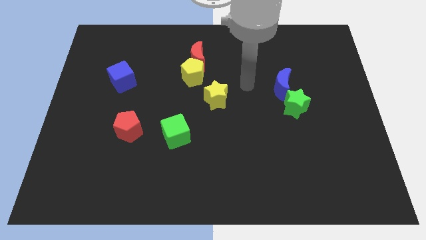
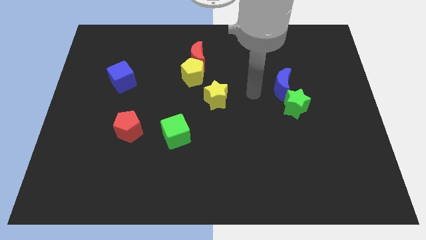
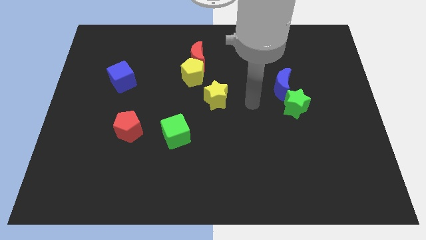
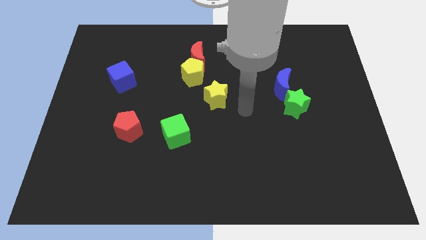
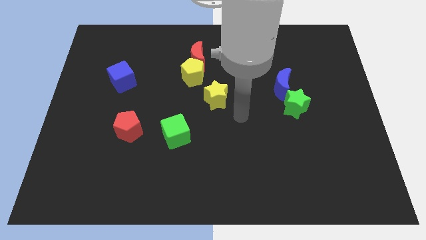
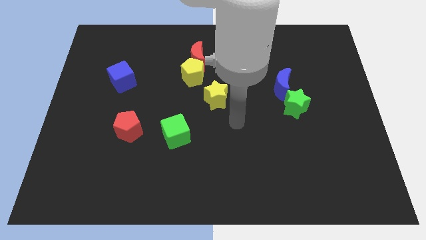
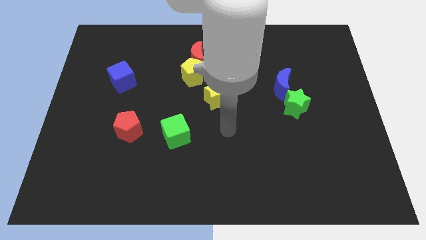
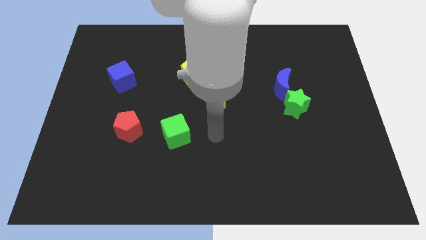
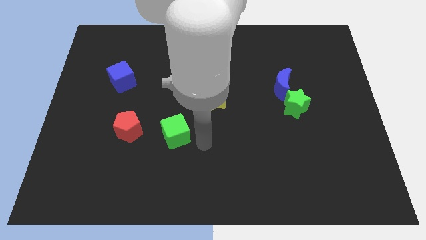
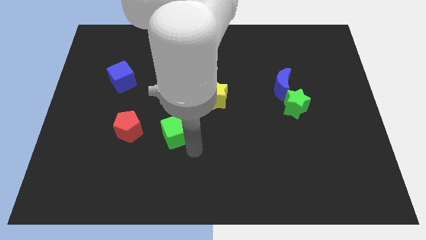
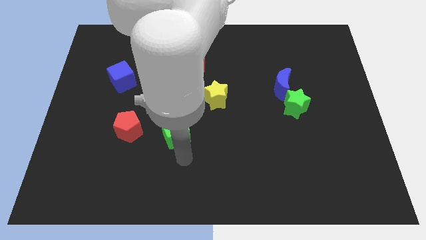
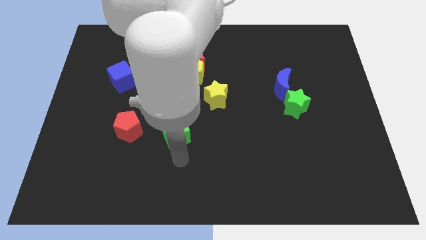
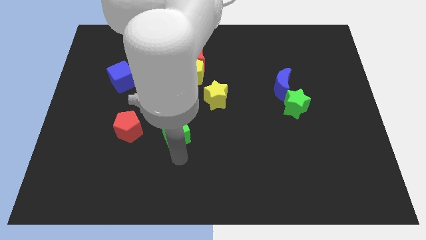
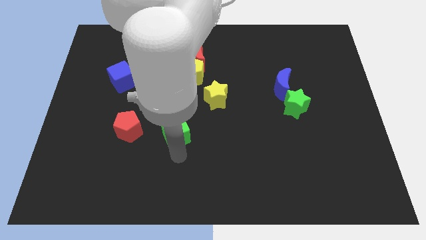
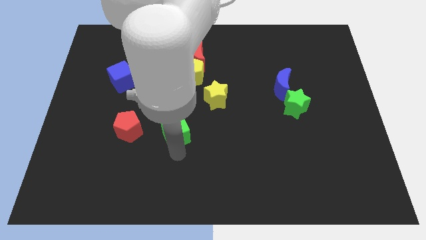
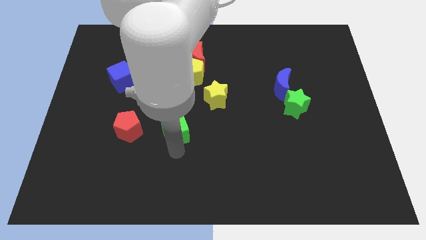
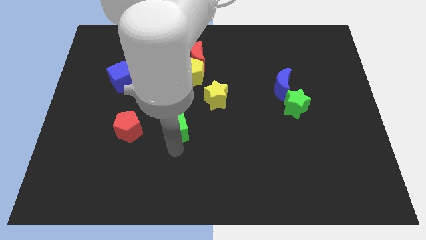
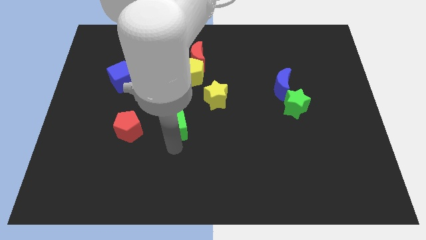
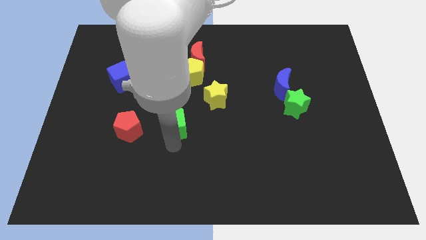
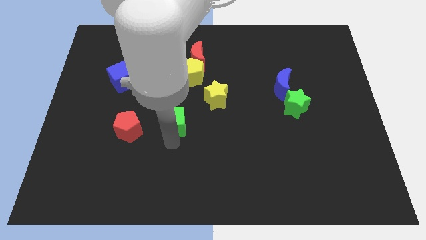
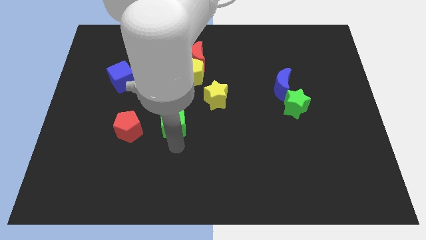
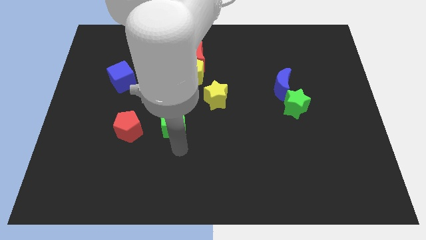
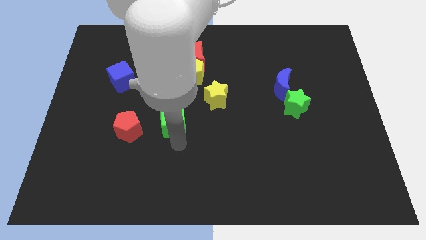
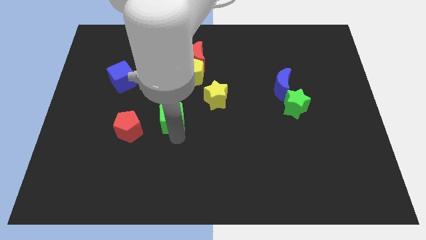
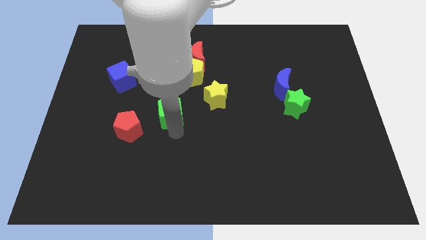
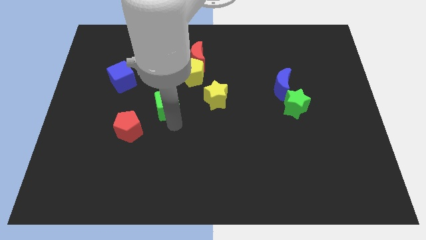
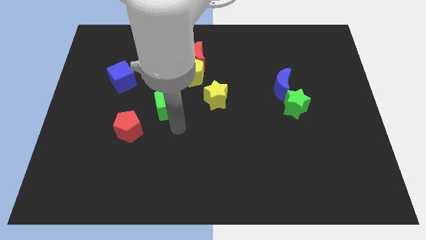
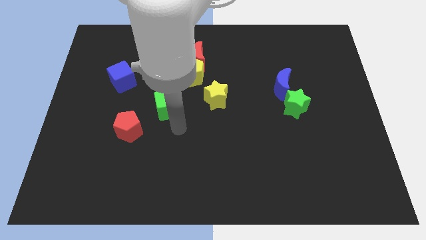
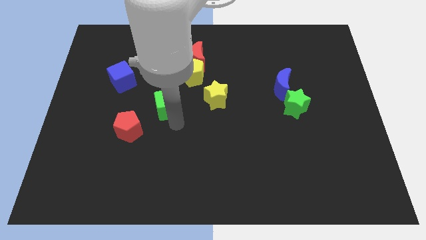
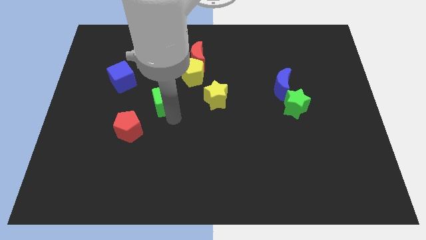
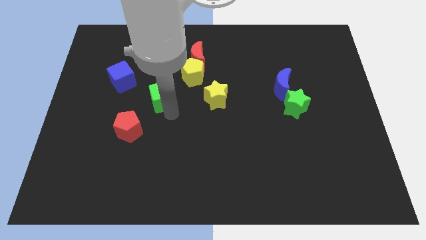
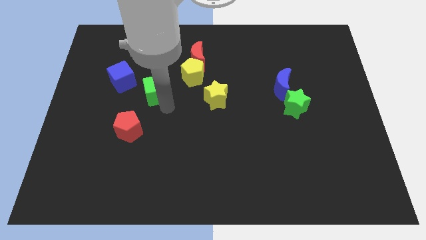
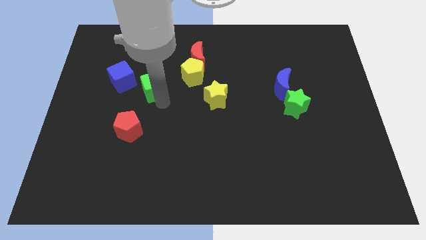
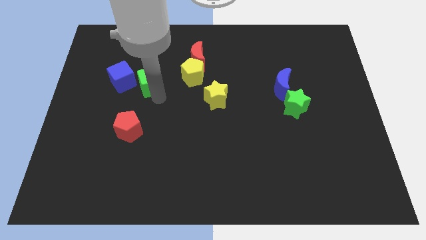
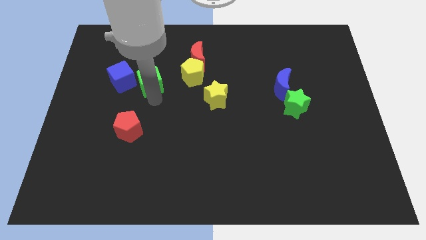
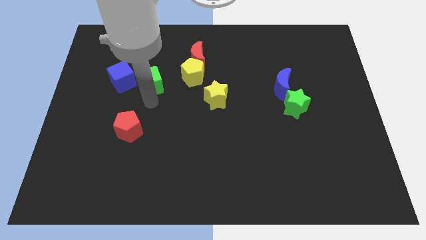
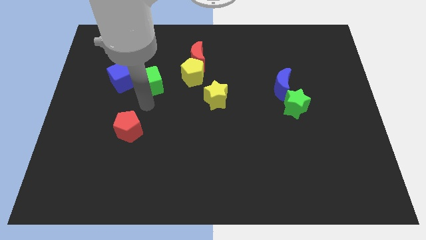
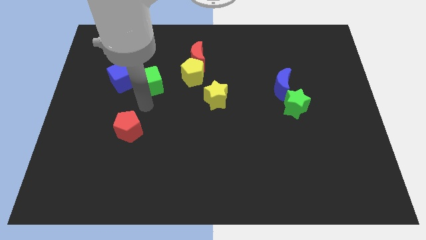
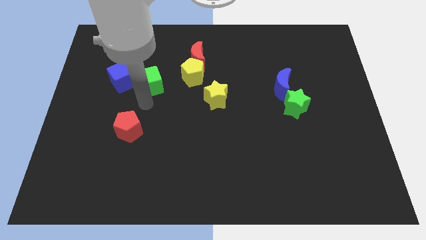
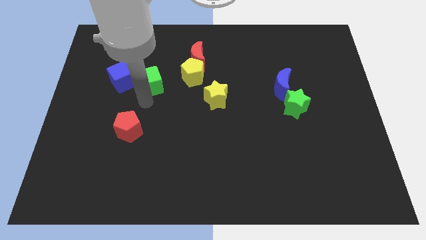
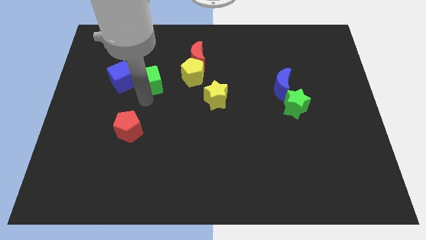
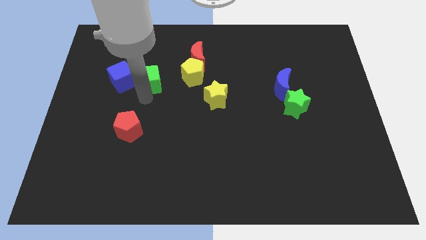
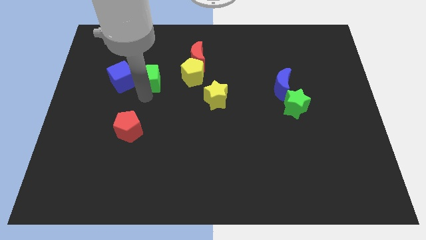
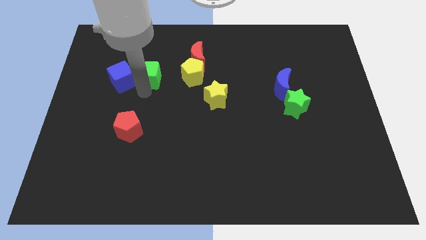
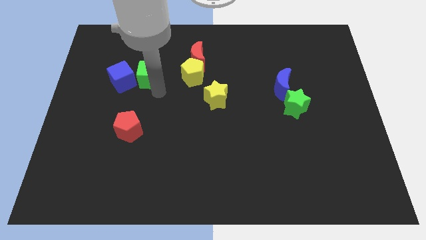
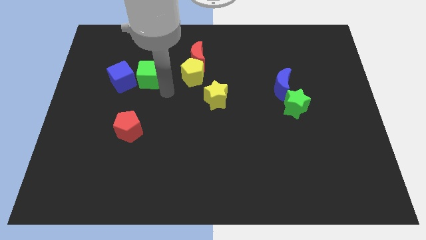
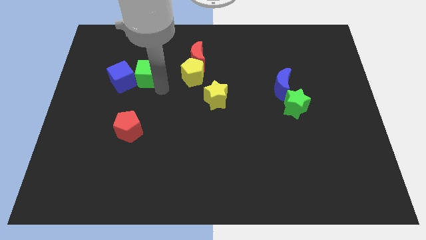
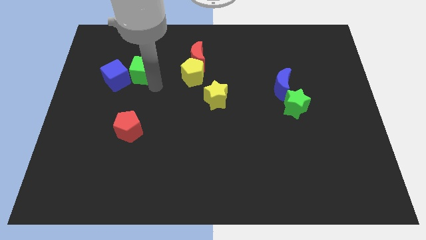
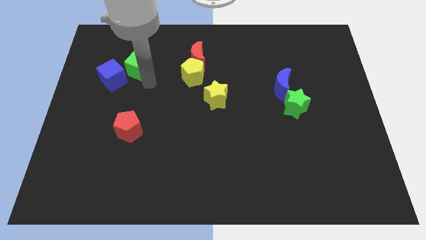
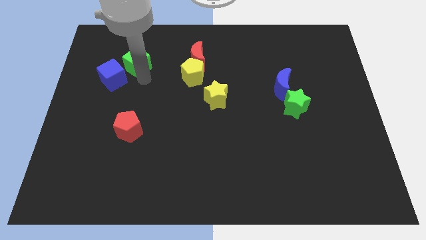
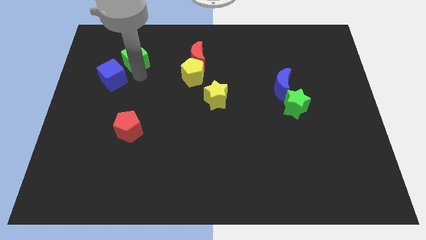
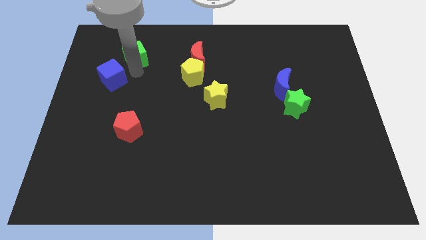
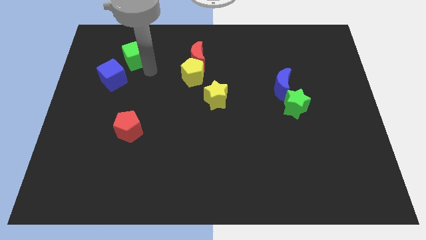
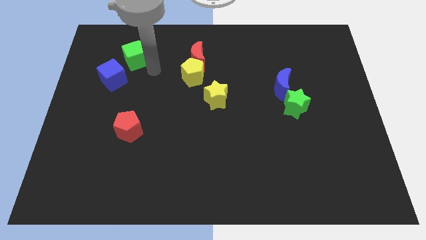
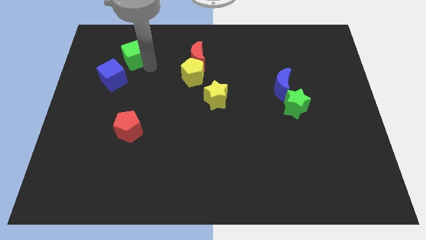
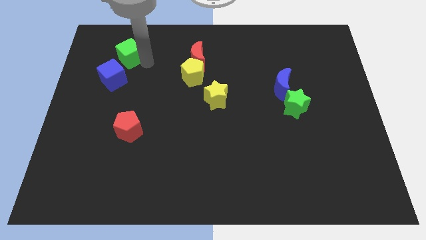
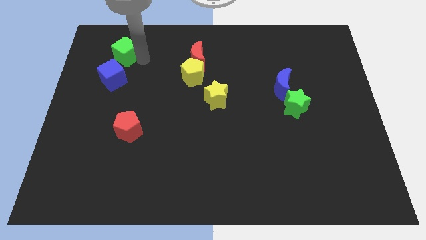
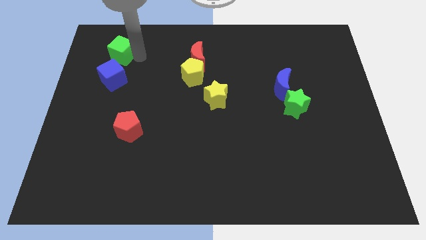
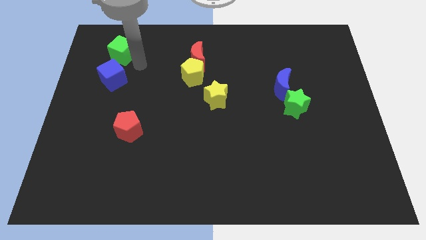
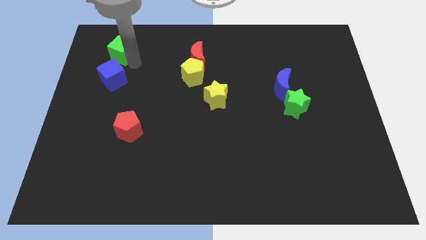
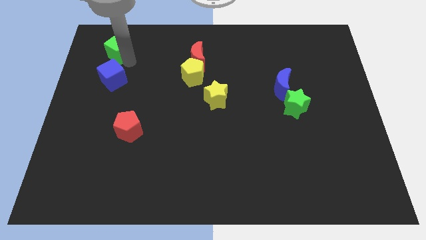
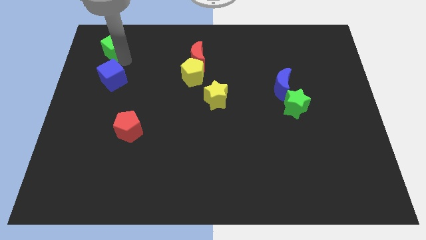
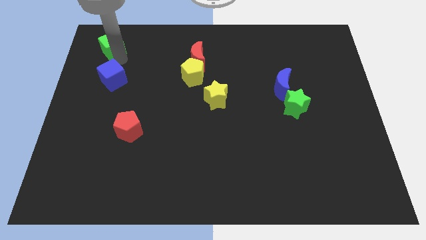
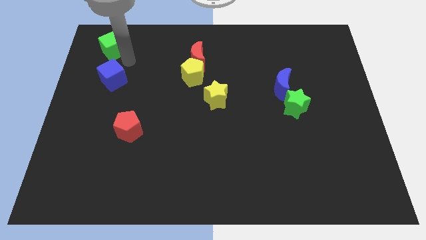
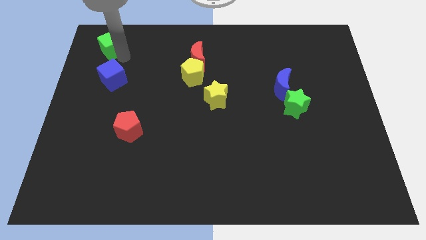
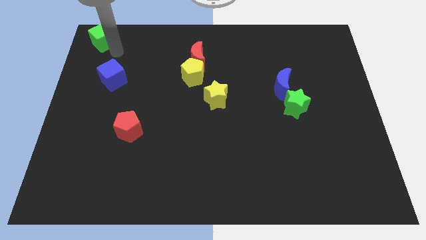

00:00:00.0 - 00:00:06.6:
slide the green cube to the upper left corner
